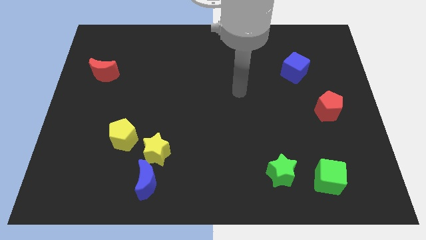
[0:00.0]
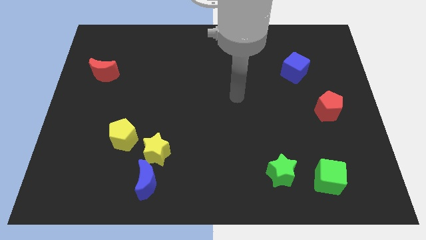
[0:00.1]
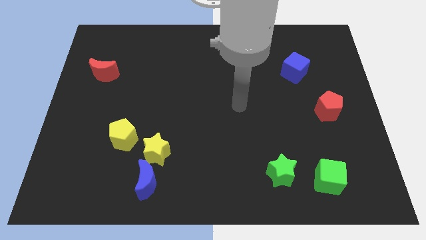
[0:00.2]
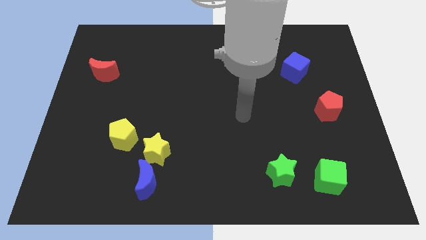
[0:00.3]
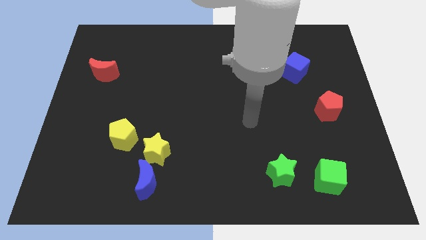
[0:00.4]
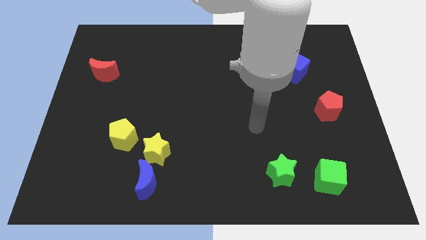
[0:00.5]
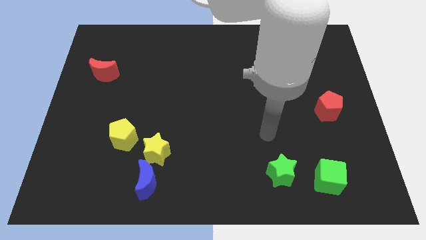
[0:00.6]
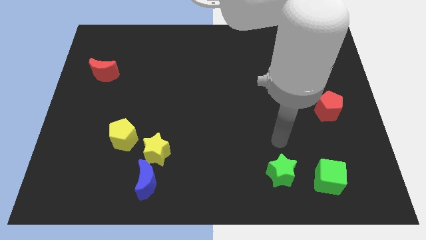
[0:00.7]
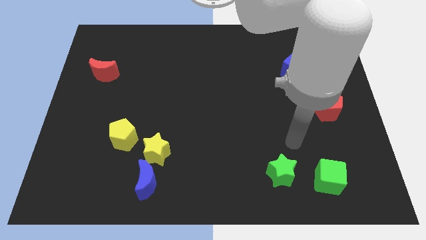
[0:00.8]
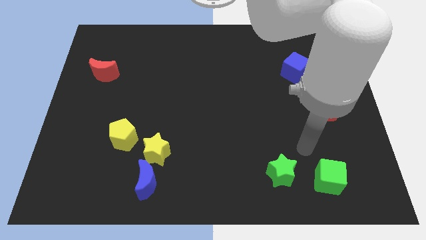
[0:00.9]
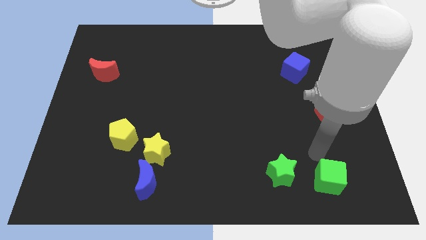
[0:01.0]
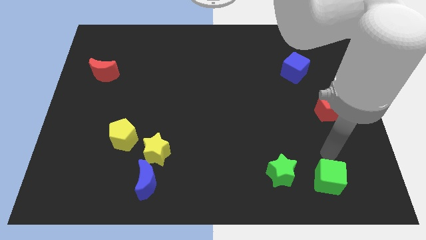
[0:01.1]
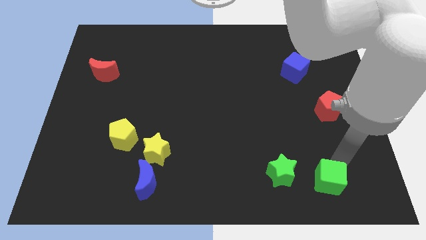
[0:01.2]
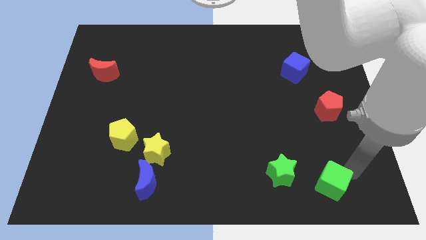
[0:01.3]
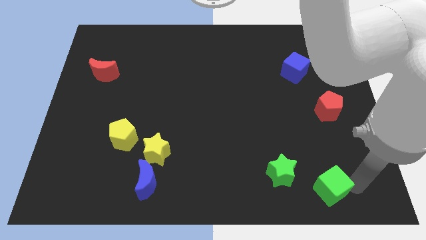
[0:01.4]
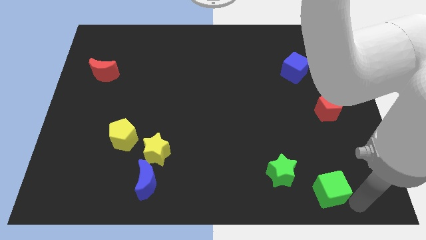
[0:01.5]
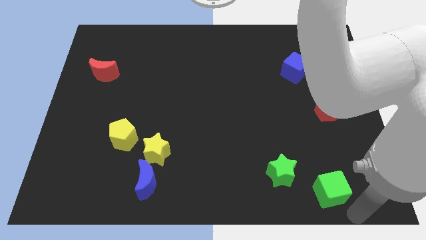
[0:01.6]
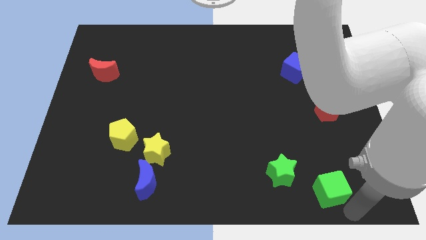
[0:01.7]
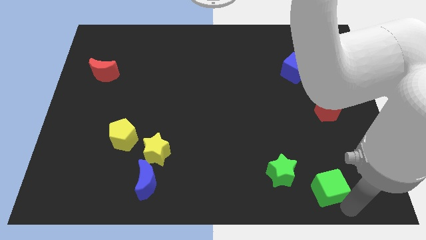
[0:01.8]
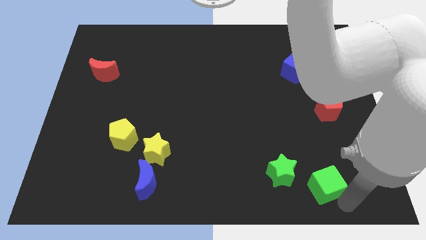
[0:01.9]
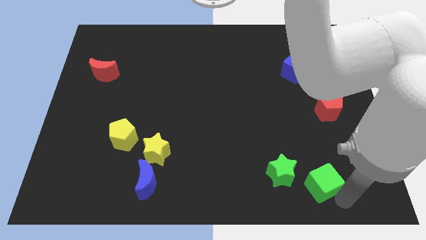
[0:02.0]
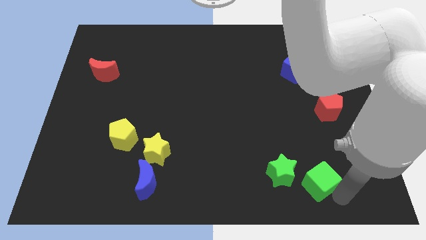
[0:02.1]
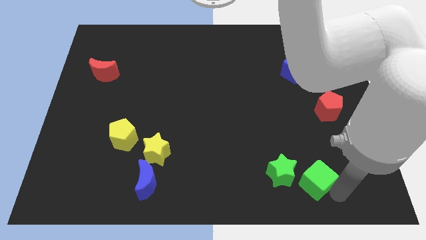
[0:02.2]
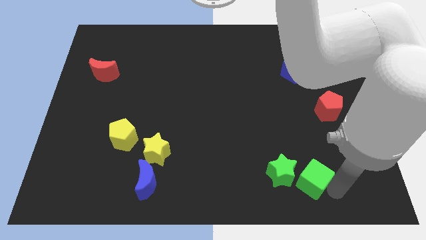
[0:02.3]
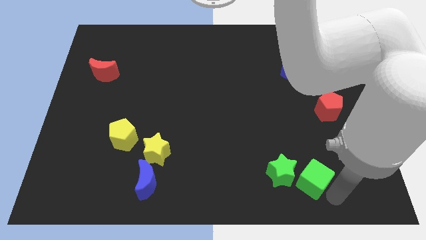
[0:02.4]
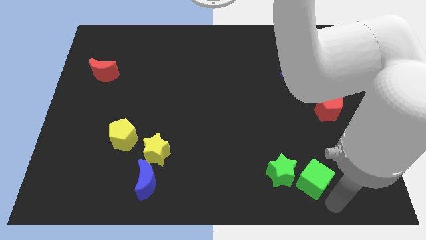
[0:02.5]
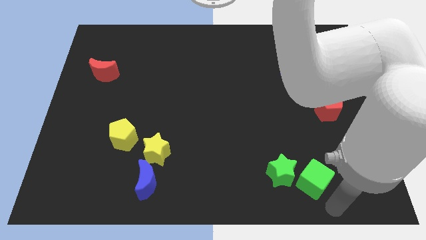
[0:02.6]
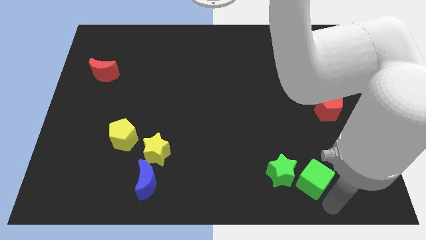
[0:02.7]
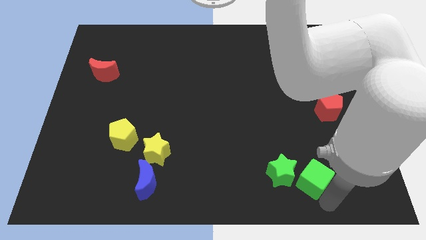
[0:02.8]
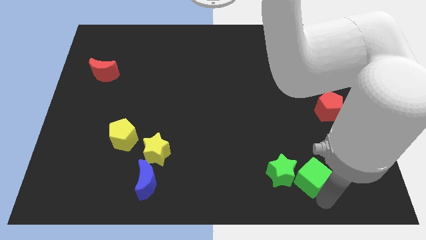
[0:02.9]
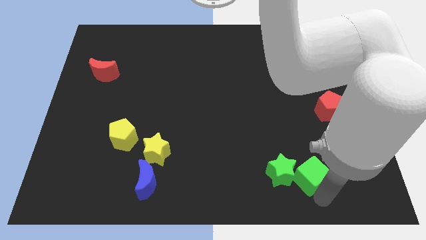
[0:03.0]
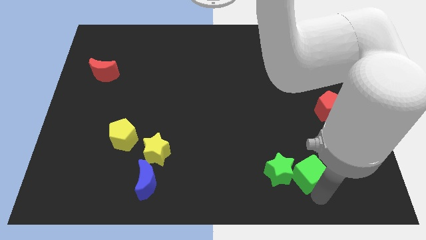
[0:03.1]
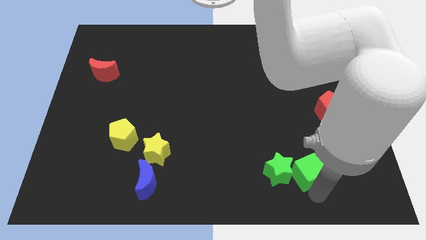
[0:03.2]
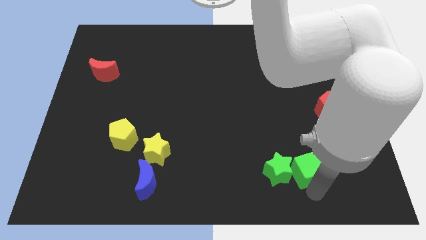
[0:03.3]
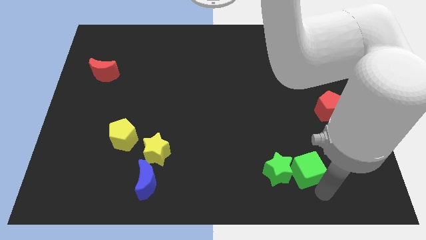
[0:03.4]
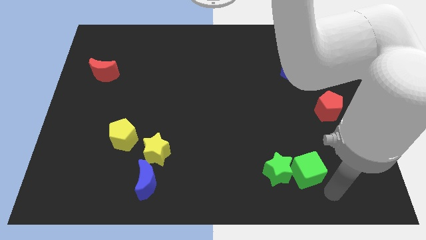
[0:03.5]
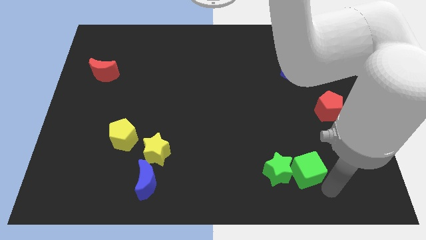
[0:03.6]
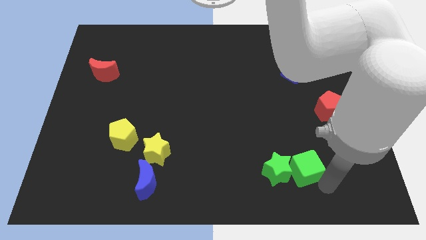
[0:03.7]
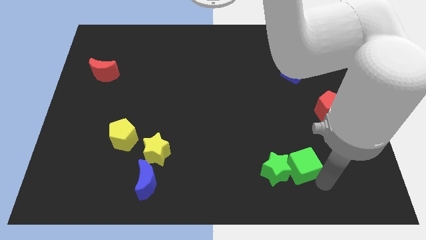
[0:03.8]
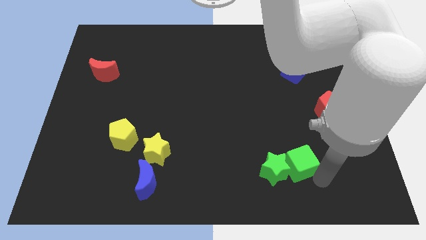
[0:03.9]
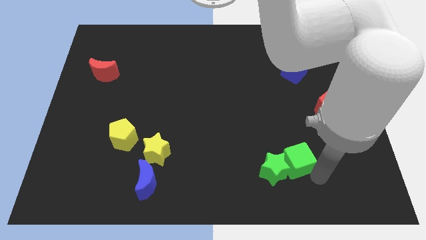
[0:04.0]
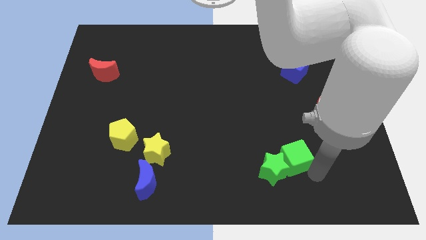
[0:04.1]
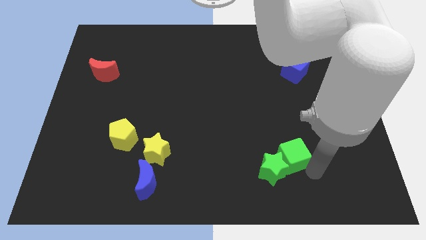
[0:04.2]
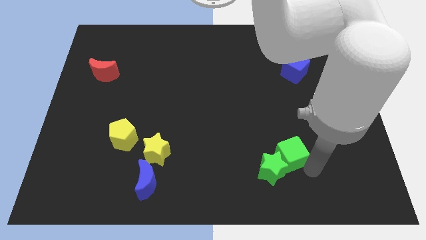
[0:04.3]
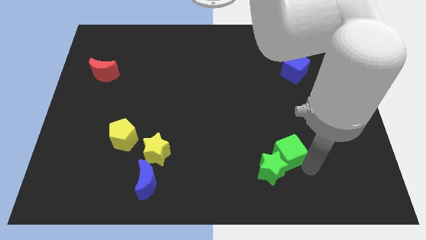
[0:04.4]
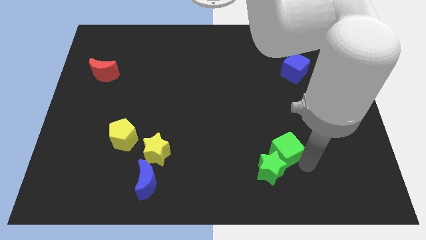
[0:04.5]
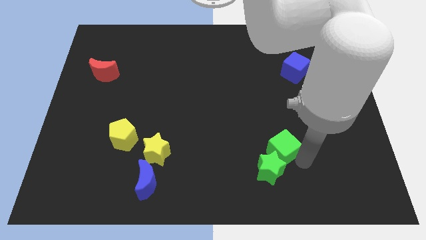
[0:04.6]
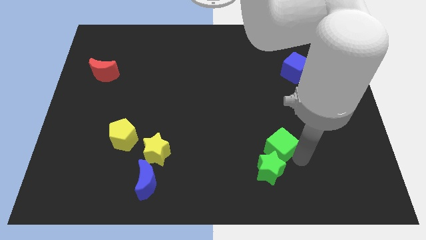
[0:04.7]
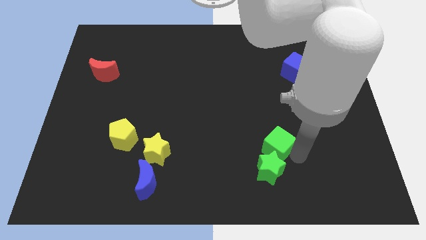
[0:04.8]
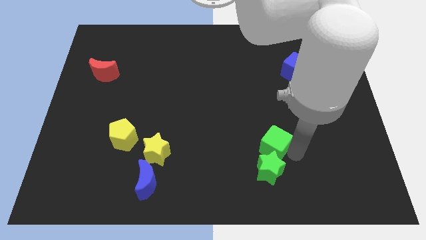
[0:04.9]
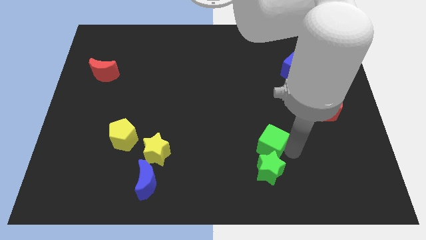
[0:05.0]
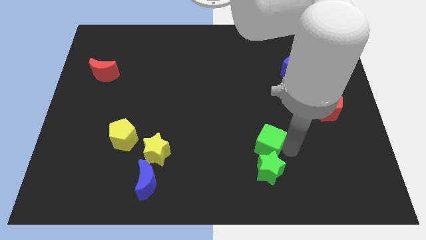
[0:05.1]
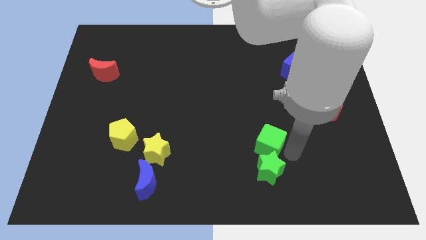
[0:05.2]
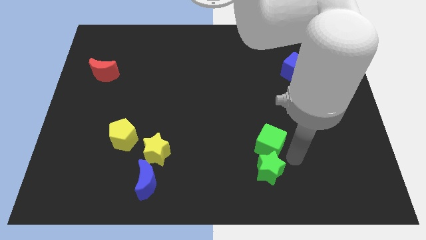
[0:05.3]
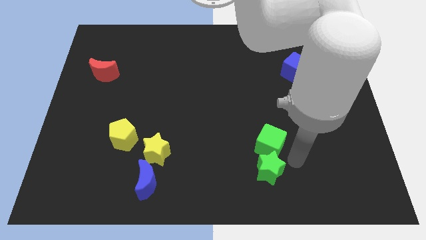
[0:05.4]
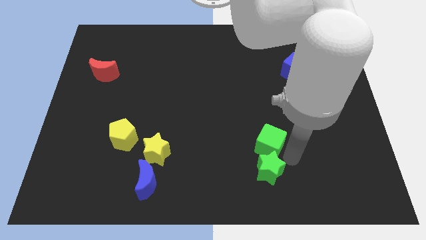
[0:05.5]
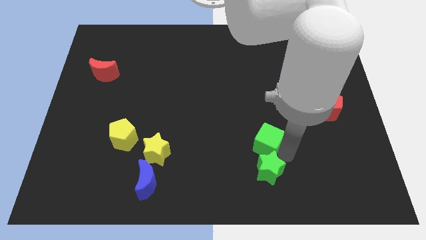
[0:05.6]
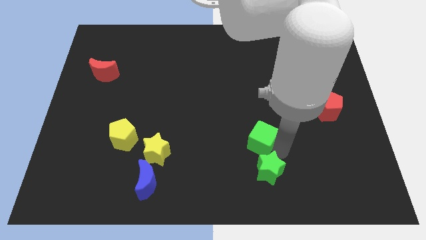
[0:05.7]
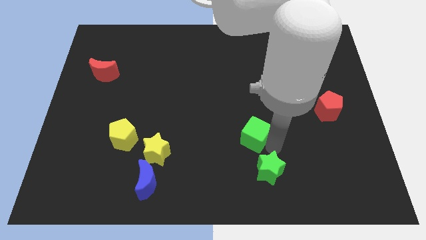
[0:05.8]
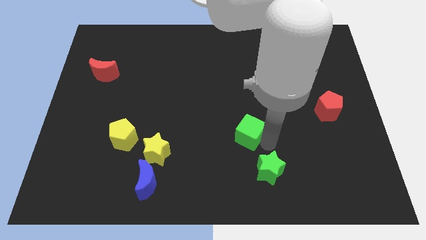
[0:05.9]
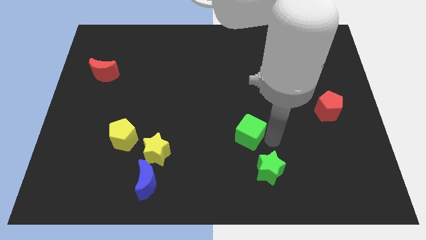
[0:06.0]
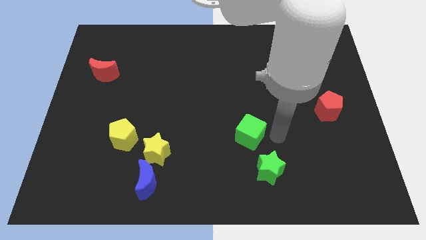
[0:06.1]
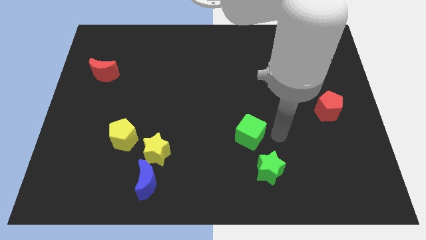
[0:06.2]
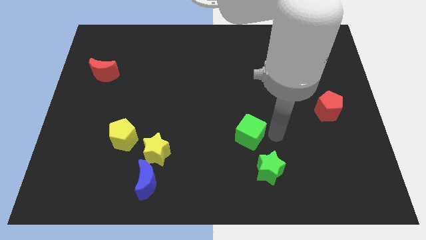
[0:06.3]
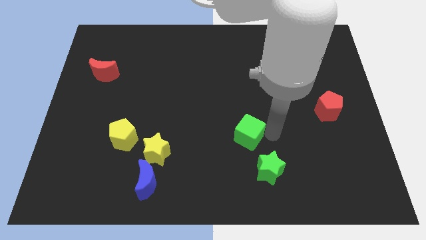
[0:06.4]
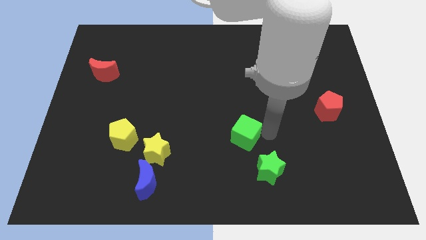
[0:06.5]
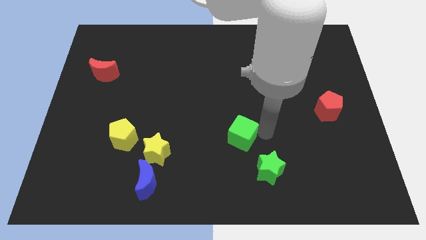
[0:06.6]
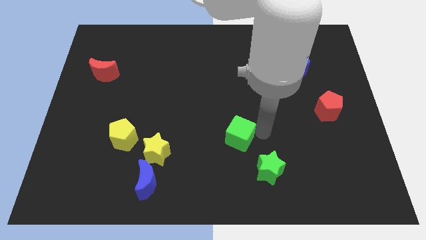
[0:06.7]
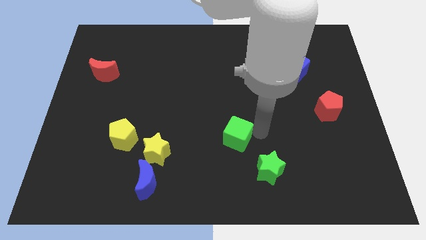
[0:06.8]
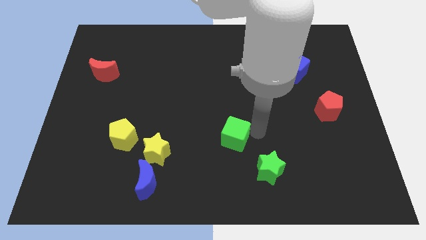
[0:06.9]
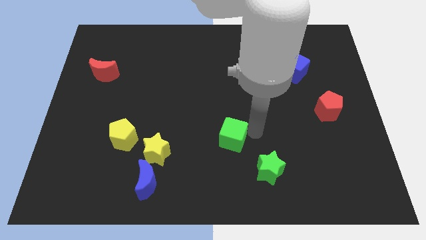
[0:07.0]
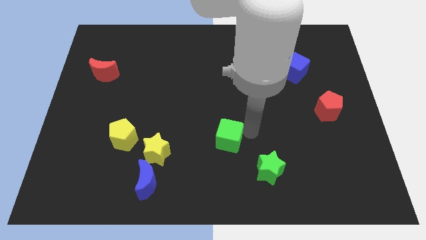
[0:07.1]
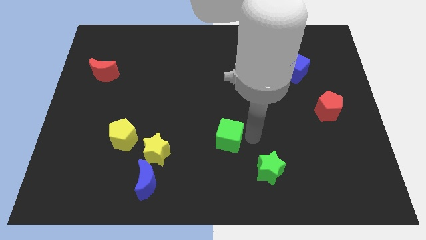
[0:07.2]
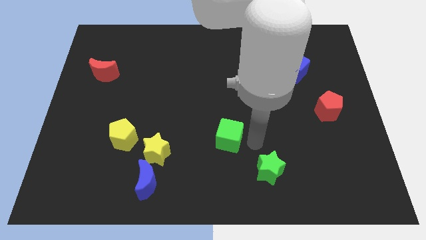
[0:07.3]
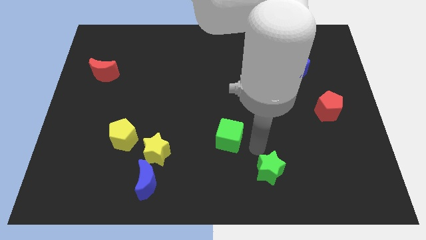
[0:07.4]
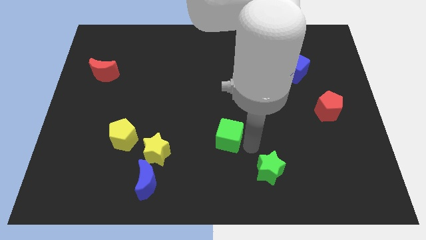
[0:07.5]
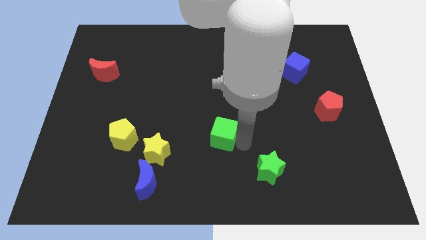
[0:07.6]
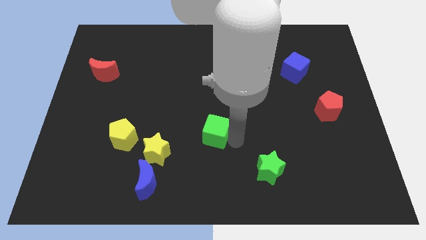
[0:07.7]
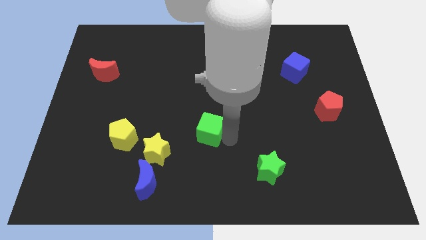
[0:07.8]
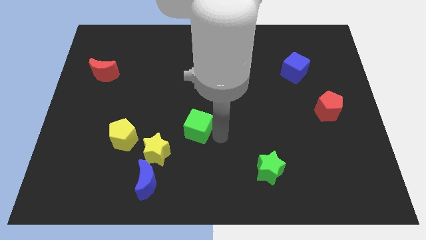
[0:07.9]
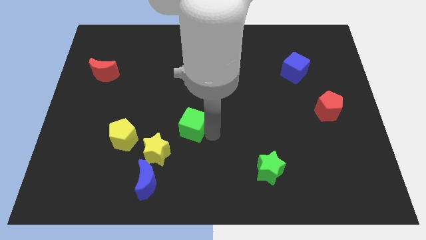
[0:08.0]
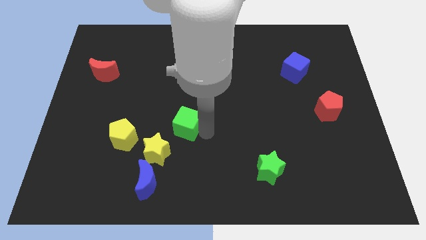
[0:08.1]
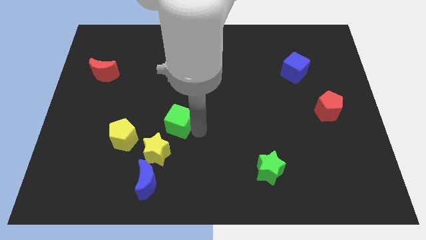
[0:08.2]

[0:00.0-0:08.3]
slide the green cube to the top side of the yellow star
